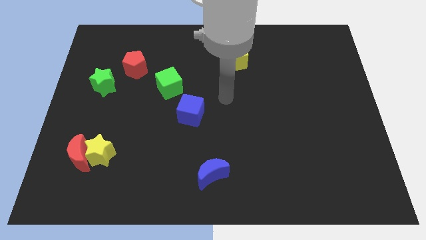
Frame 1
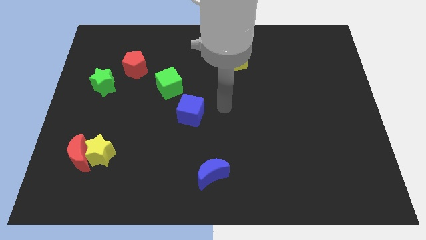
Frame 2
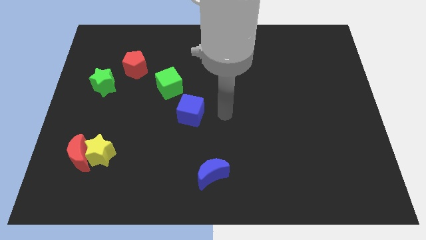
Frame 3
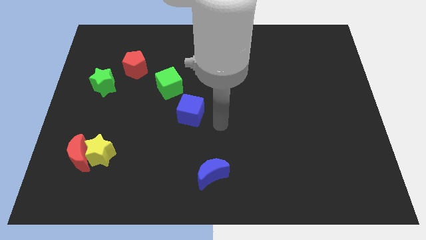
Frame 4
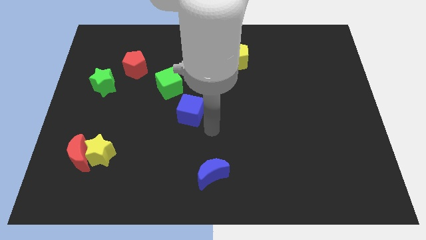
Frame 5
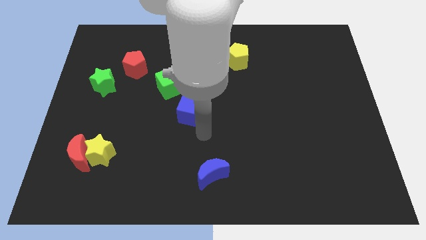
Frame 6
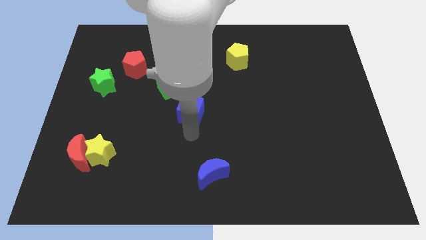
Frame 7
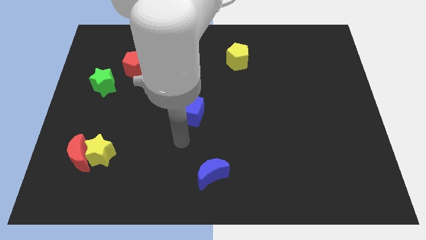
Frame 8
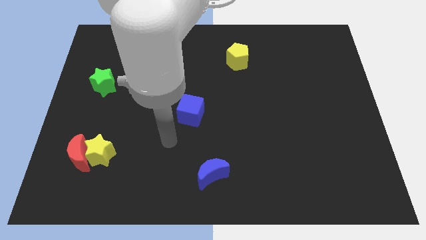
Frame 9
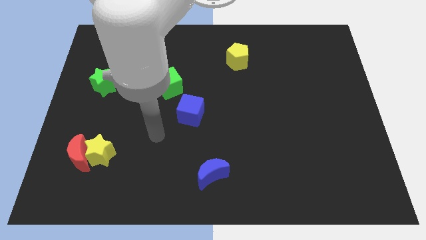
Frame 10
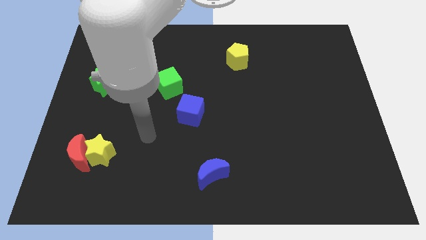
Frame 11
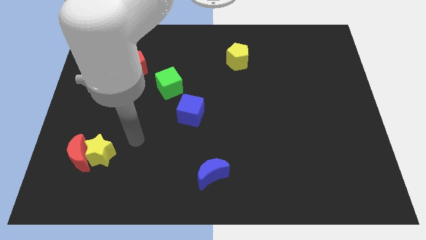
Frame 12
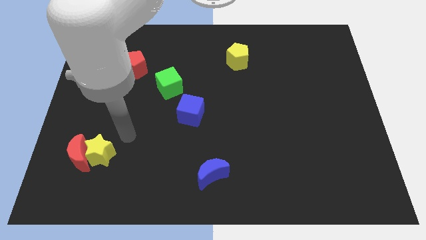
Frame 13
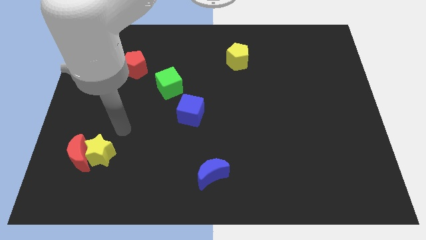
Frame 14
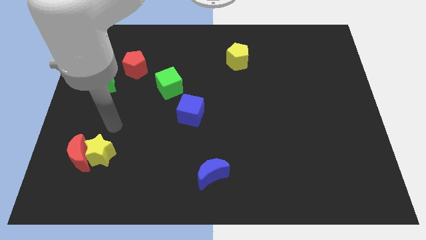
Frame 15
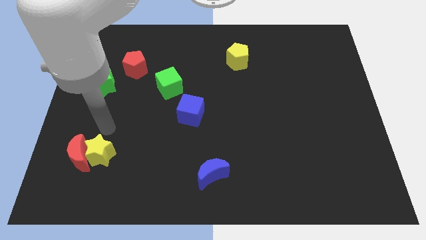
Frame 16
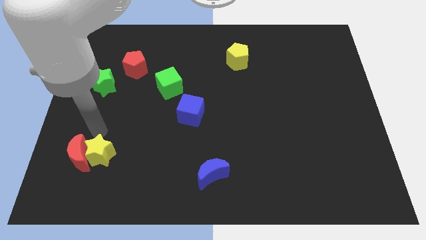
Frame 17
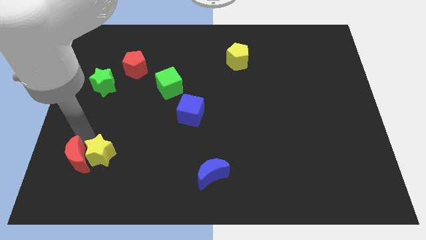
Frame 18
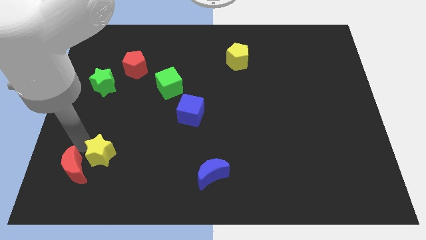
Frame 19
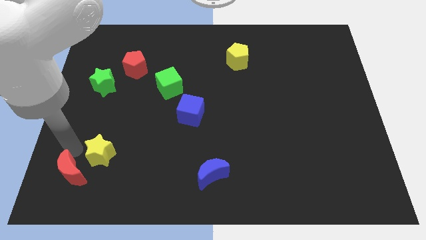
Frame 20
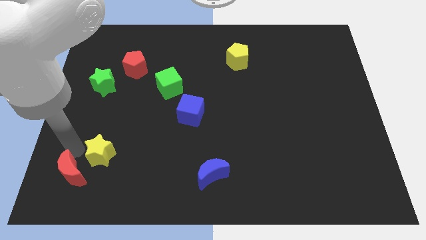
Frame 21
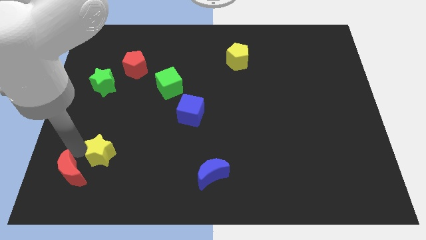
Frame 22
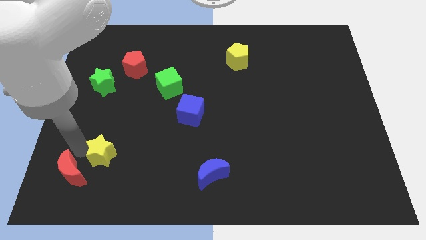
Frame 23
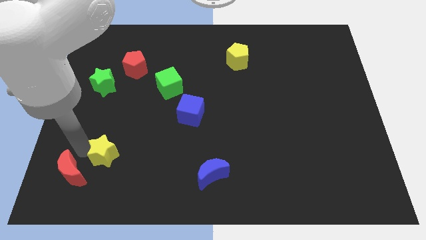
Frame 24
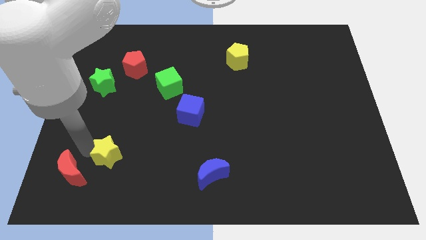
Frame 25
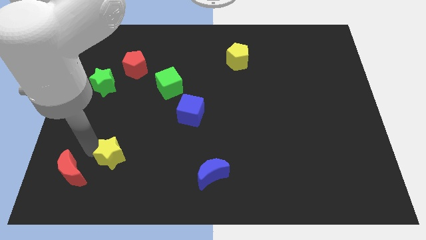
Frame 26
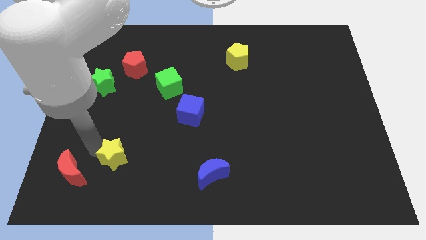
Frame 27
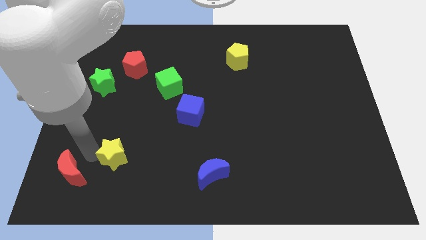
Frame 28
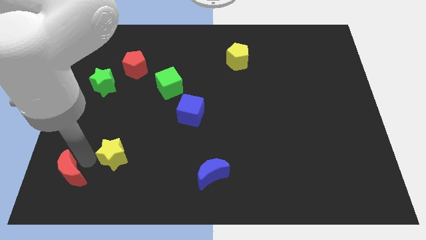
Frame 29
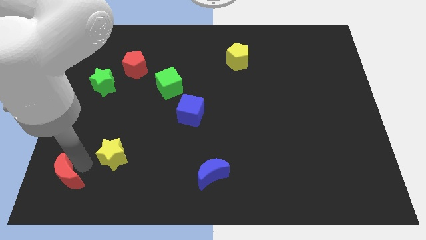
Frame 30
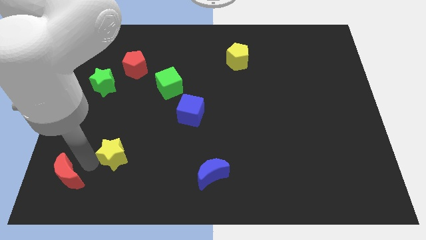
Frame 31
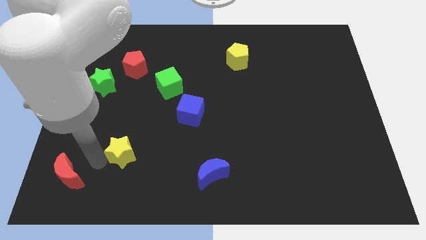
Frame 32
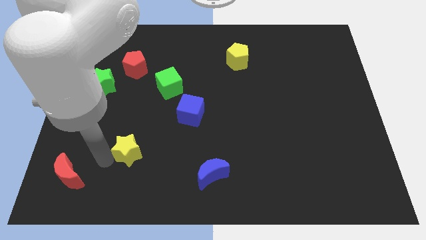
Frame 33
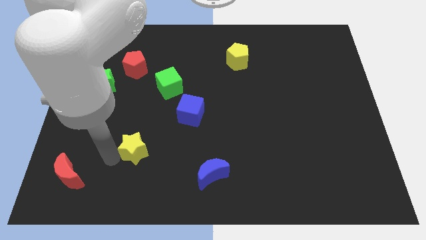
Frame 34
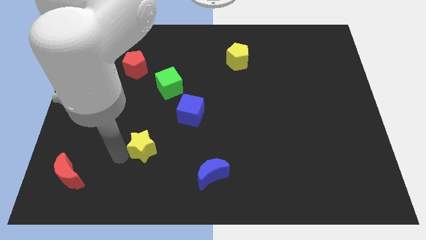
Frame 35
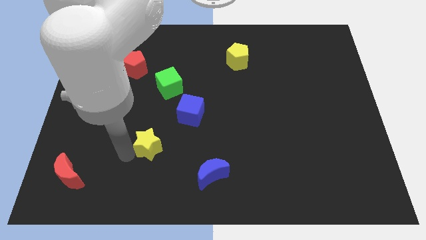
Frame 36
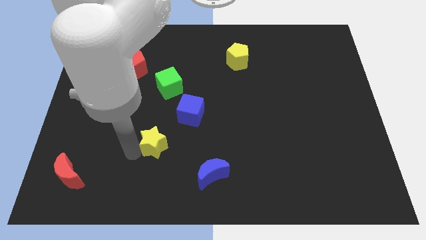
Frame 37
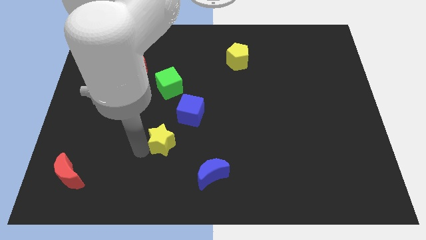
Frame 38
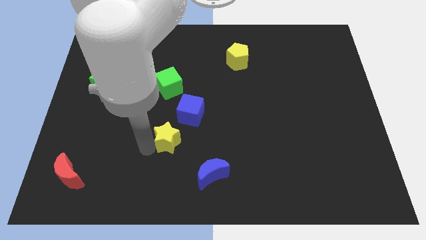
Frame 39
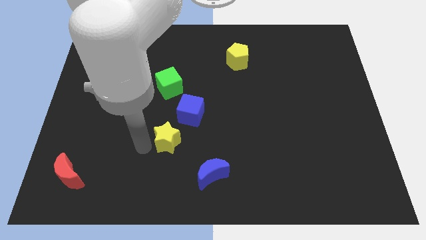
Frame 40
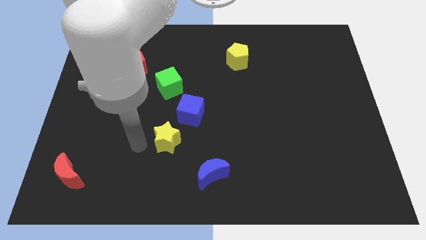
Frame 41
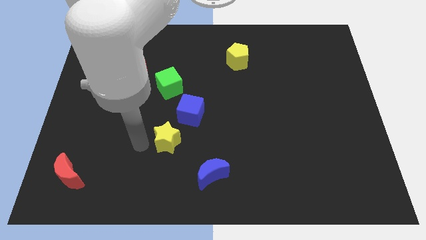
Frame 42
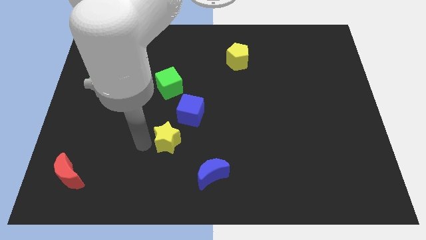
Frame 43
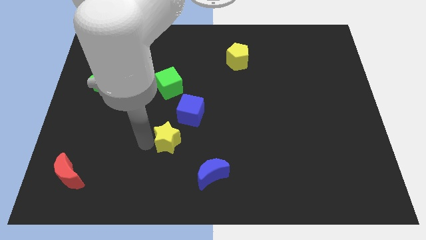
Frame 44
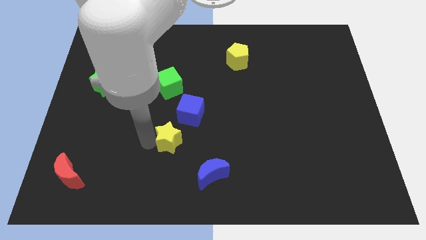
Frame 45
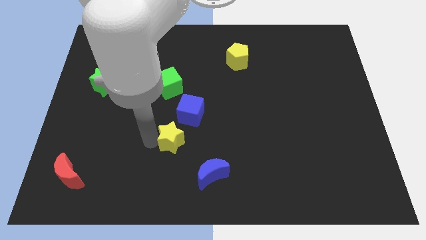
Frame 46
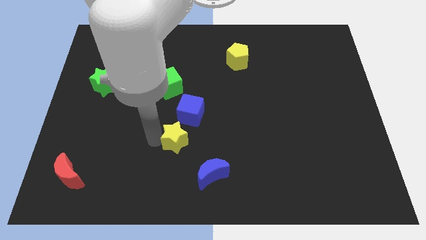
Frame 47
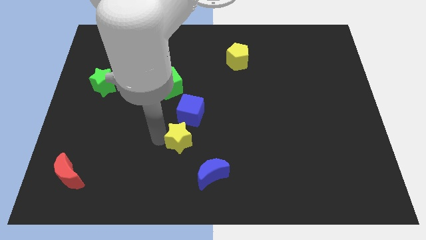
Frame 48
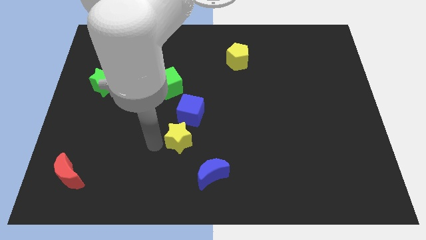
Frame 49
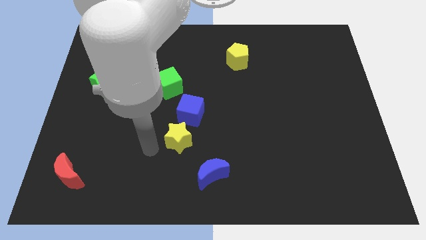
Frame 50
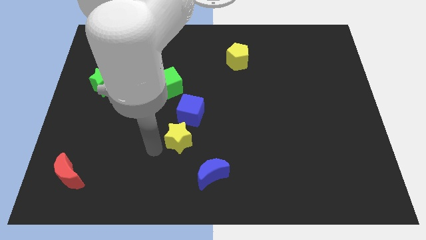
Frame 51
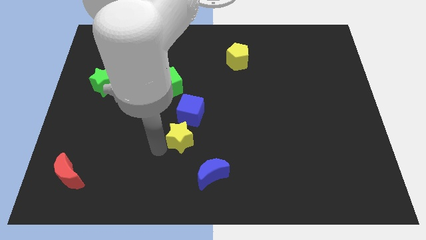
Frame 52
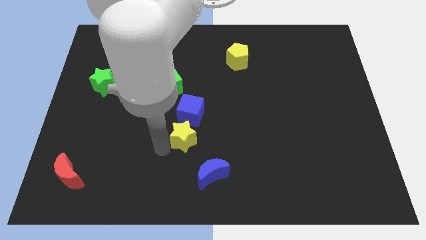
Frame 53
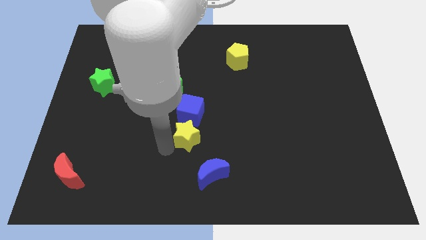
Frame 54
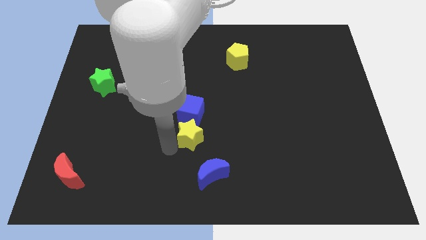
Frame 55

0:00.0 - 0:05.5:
push the yellow star diagonally down and to the right of the blue cube

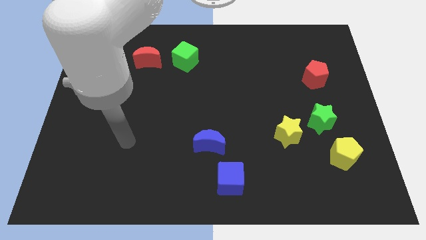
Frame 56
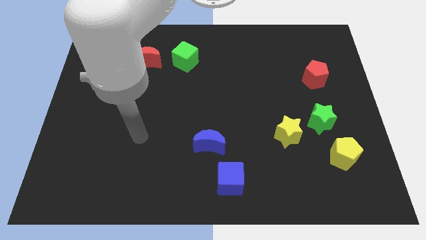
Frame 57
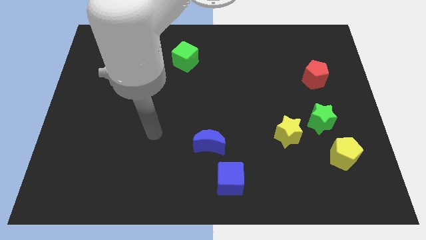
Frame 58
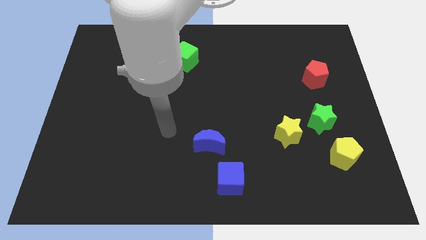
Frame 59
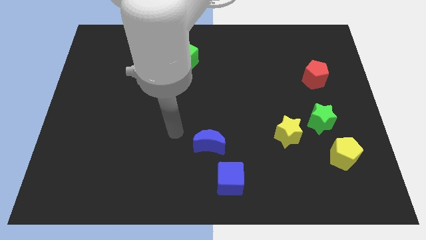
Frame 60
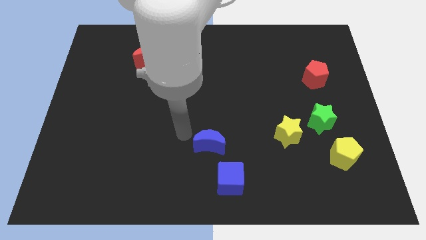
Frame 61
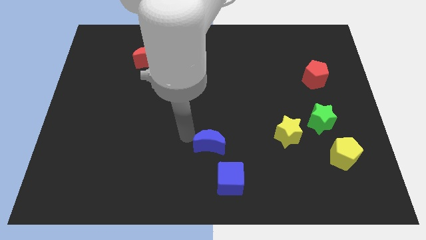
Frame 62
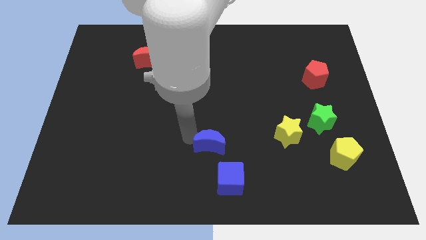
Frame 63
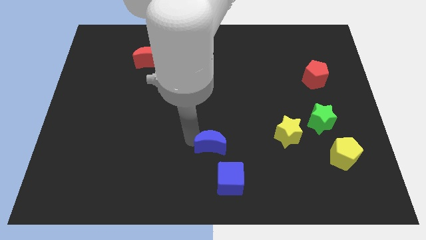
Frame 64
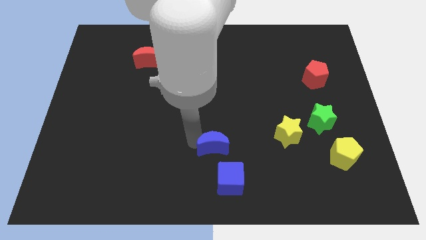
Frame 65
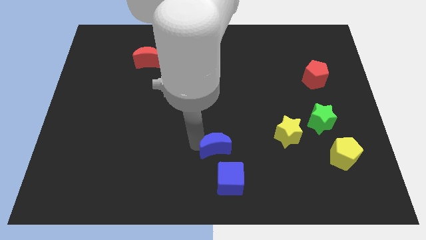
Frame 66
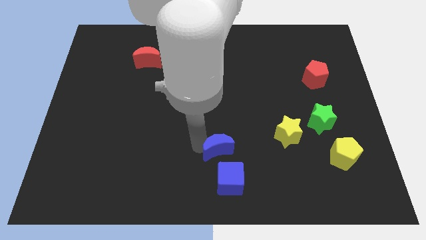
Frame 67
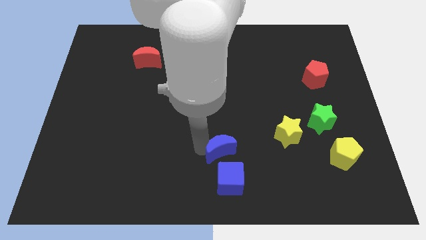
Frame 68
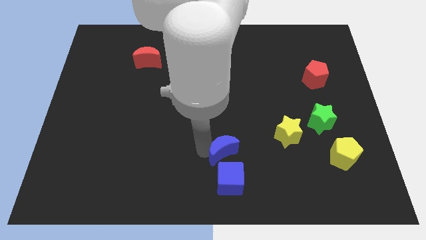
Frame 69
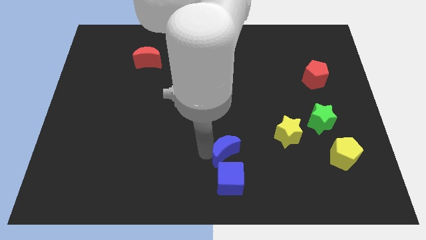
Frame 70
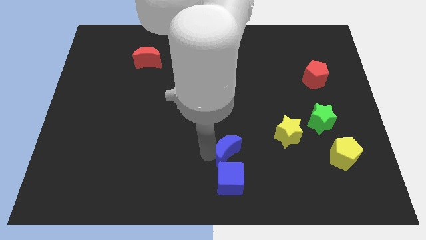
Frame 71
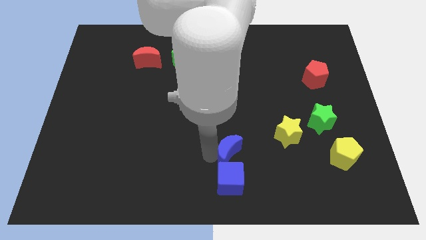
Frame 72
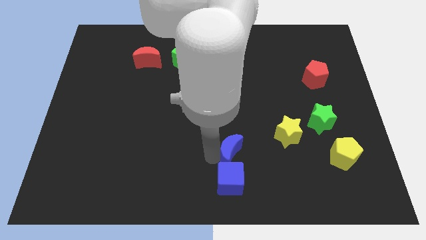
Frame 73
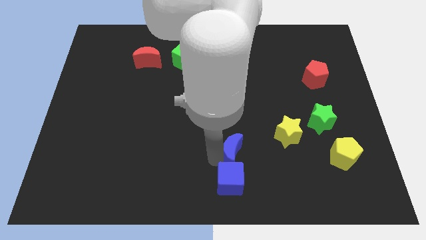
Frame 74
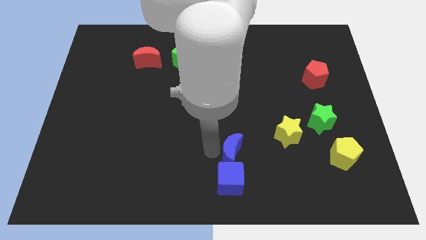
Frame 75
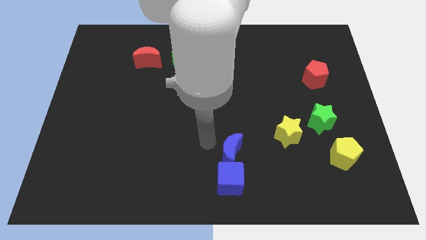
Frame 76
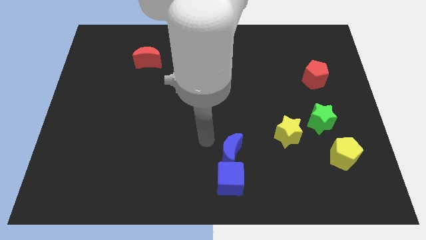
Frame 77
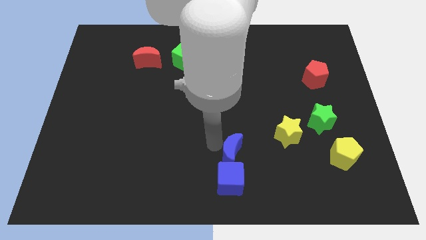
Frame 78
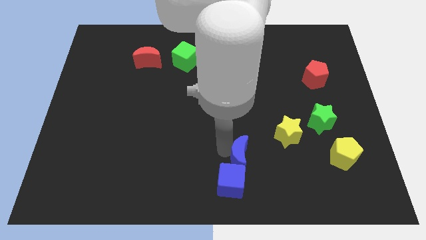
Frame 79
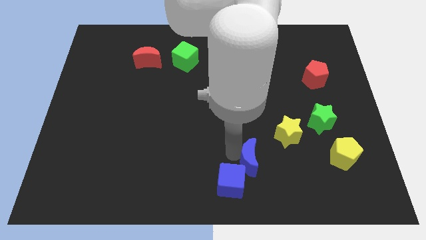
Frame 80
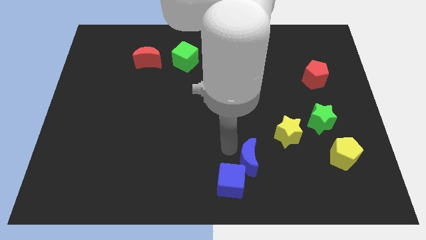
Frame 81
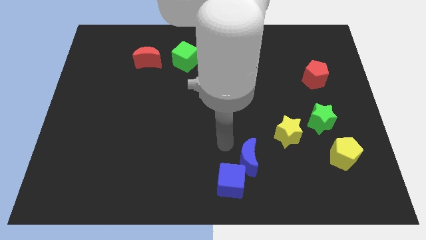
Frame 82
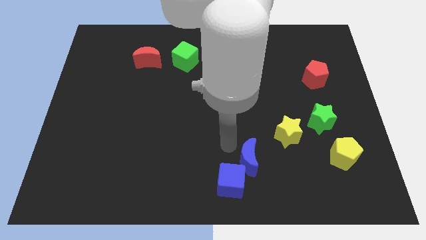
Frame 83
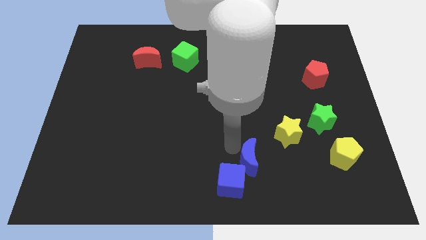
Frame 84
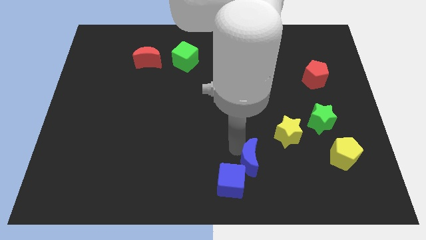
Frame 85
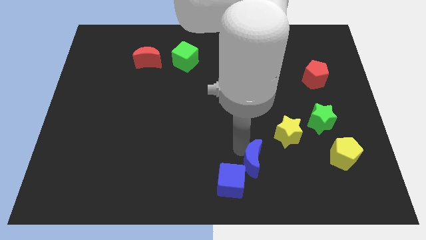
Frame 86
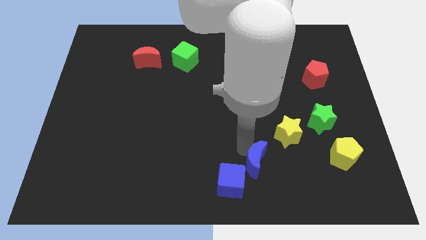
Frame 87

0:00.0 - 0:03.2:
put the blue moon to the right side of the blue cube
